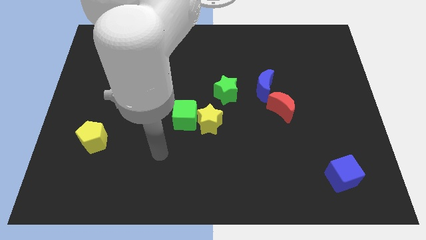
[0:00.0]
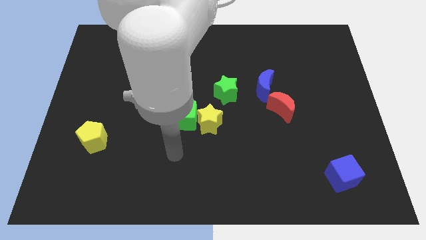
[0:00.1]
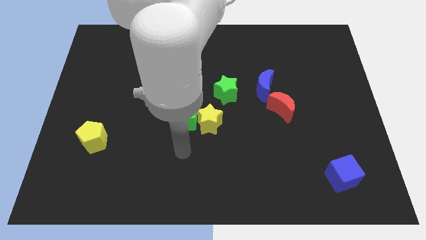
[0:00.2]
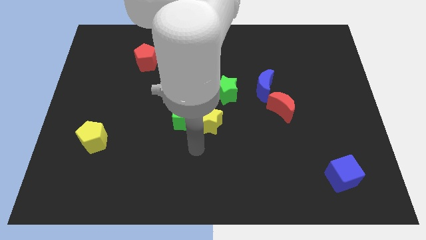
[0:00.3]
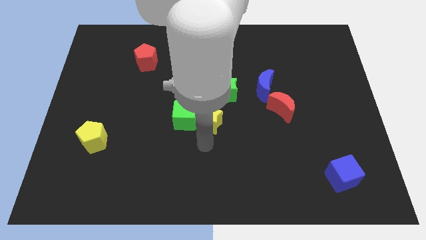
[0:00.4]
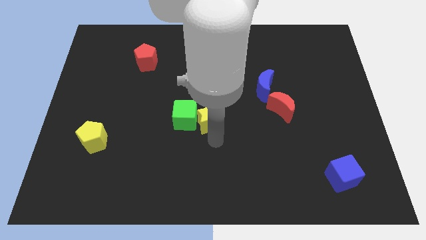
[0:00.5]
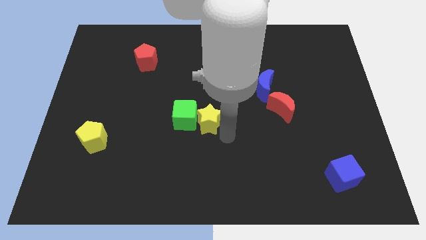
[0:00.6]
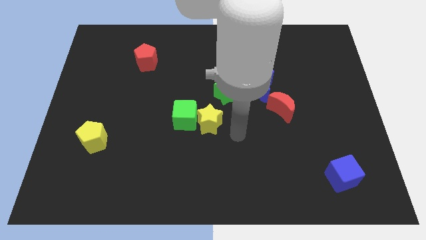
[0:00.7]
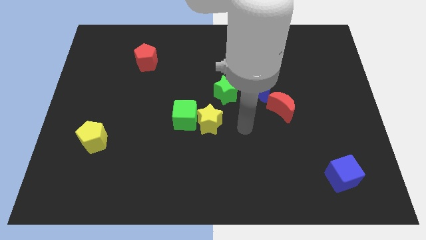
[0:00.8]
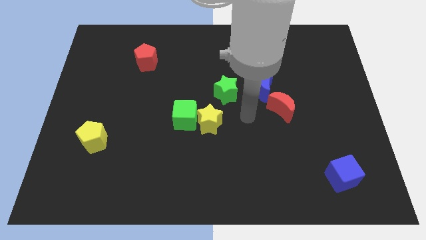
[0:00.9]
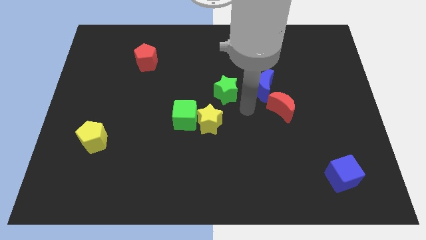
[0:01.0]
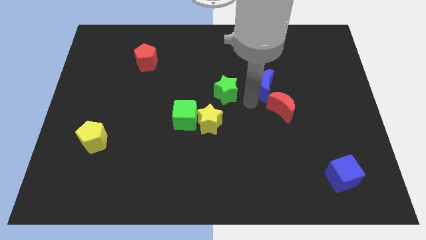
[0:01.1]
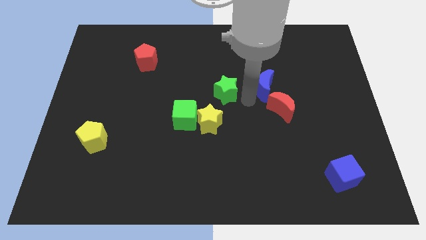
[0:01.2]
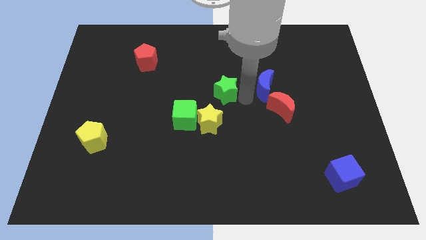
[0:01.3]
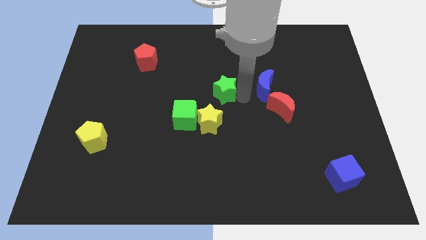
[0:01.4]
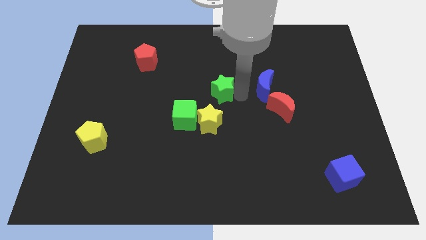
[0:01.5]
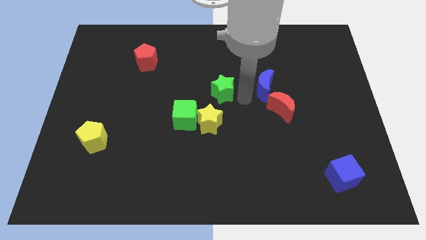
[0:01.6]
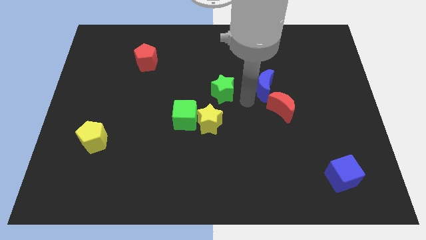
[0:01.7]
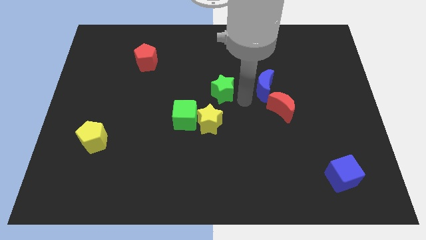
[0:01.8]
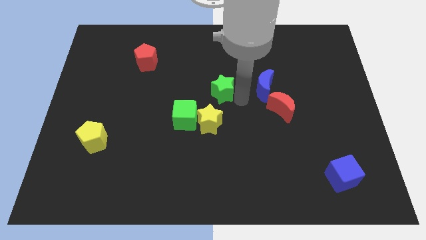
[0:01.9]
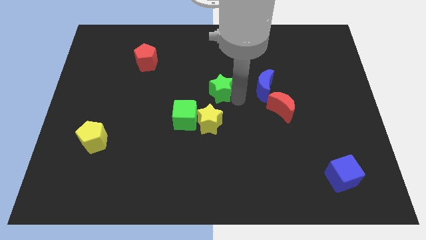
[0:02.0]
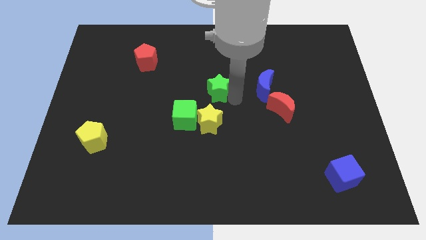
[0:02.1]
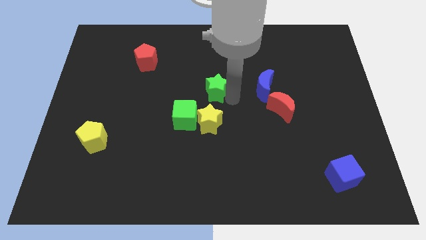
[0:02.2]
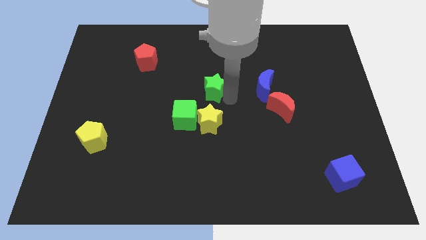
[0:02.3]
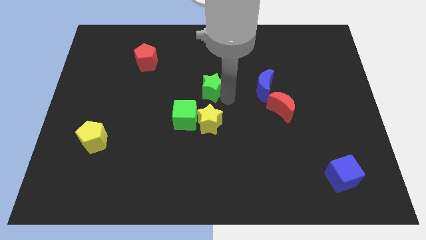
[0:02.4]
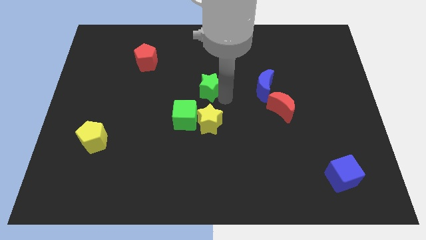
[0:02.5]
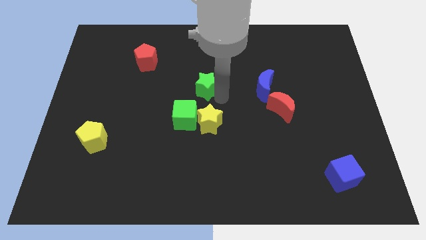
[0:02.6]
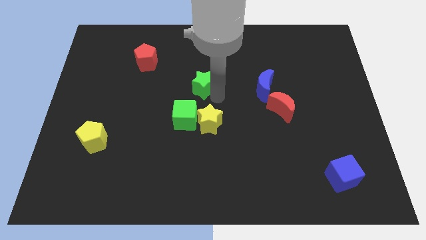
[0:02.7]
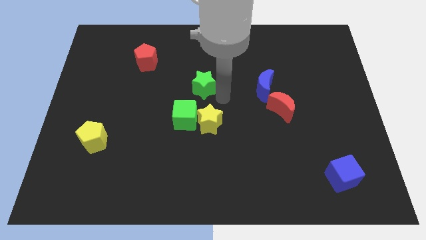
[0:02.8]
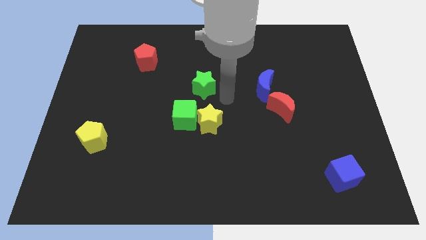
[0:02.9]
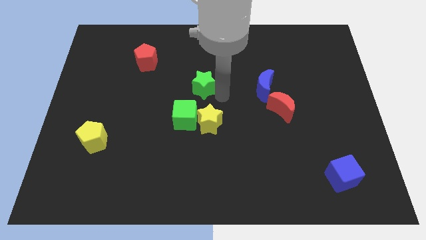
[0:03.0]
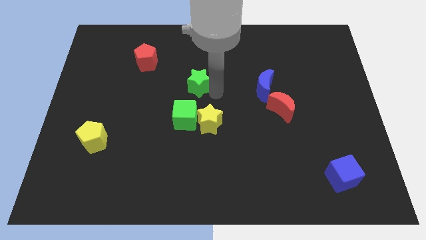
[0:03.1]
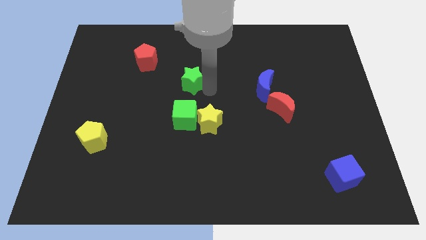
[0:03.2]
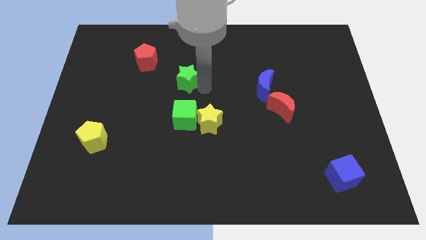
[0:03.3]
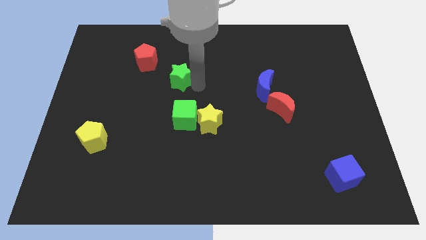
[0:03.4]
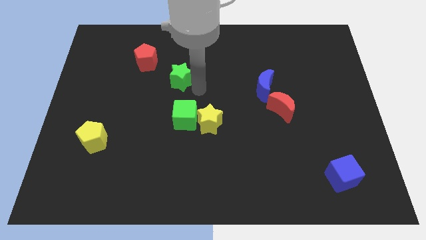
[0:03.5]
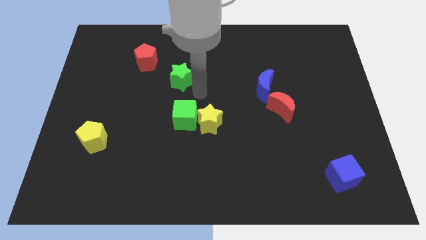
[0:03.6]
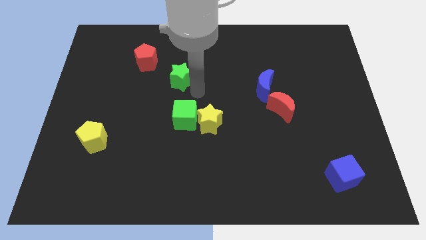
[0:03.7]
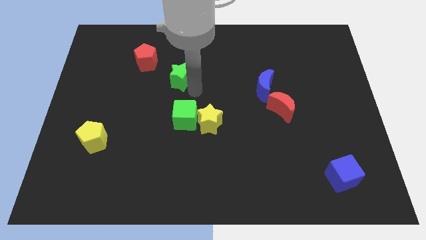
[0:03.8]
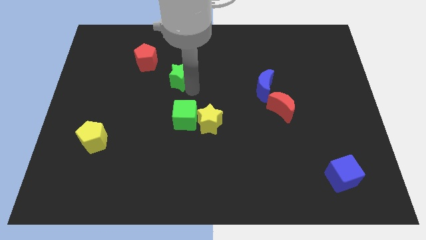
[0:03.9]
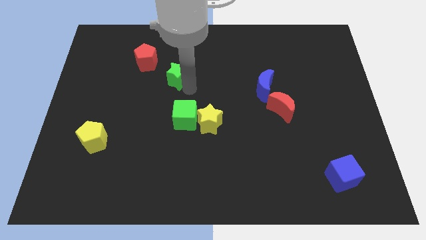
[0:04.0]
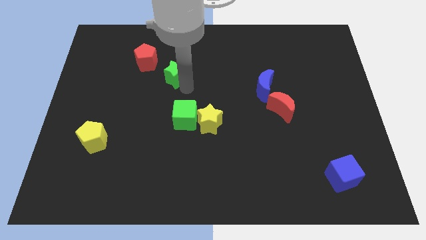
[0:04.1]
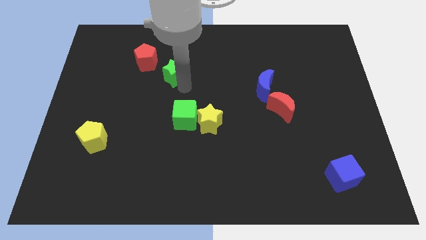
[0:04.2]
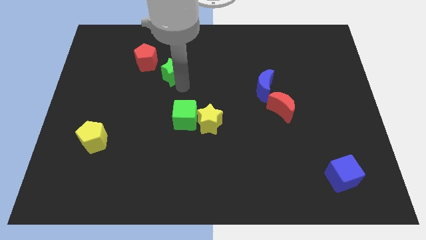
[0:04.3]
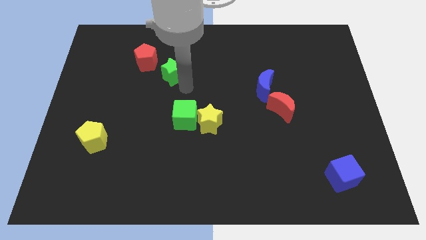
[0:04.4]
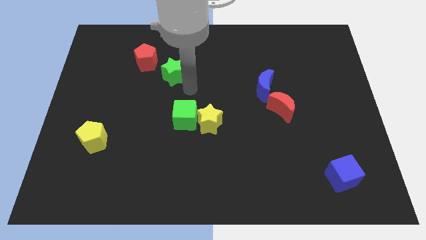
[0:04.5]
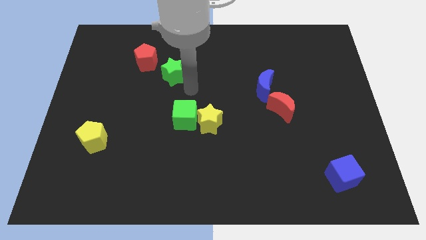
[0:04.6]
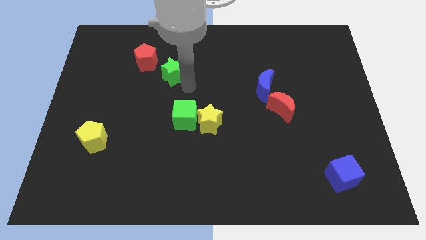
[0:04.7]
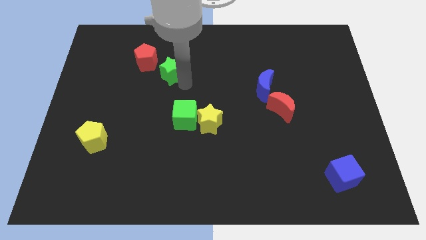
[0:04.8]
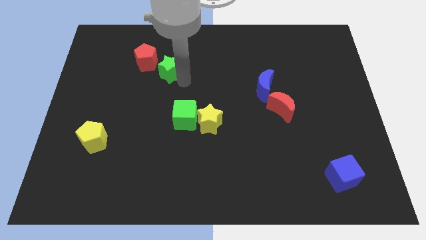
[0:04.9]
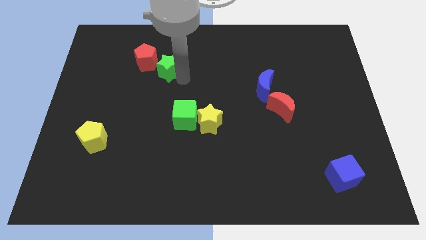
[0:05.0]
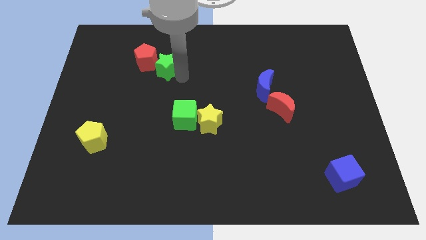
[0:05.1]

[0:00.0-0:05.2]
slide the green star next to the red pentagon

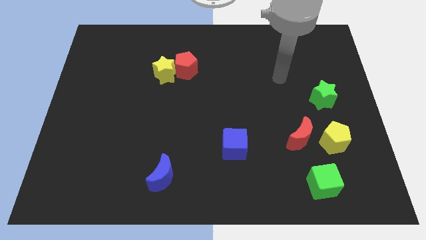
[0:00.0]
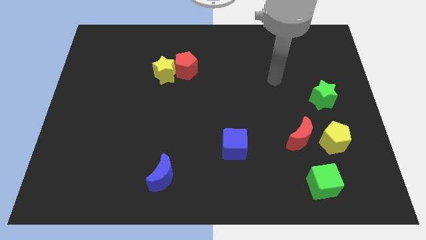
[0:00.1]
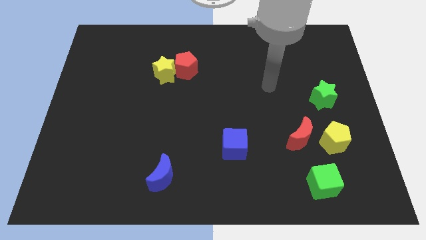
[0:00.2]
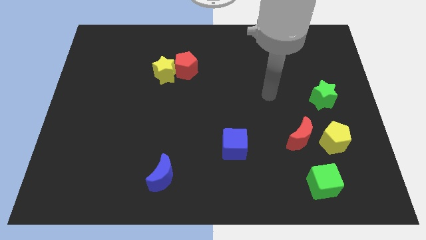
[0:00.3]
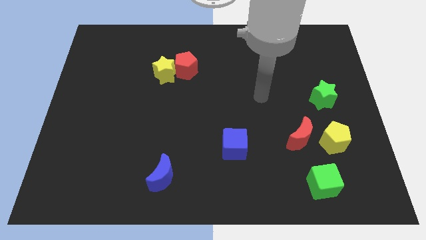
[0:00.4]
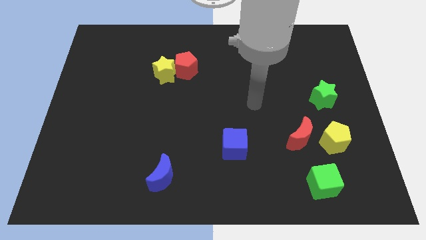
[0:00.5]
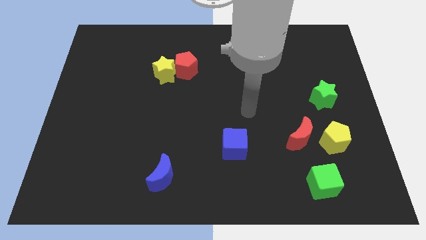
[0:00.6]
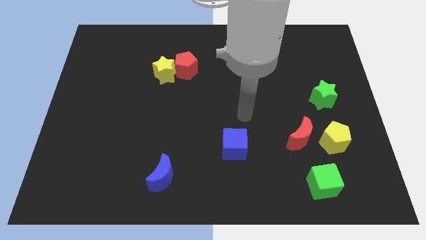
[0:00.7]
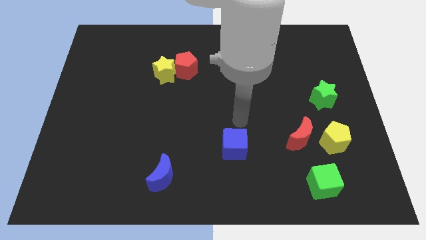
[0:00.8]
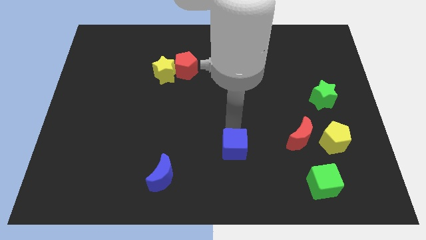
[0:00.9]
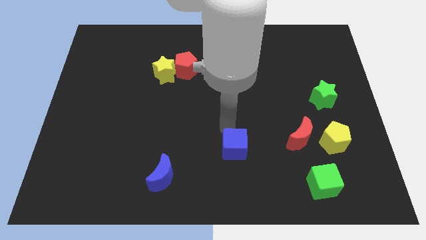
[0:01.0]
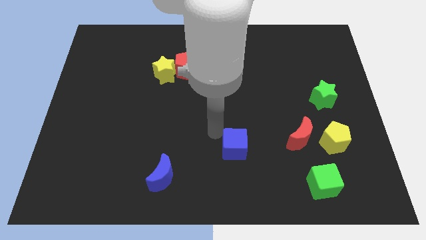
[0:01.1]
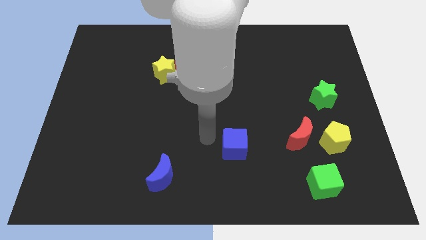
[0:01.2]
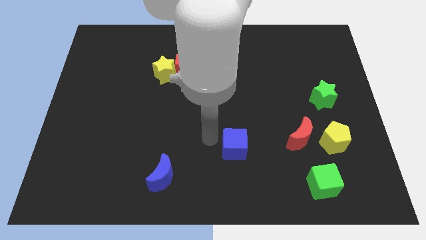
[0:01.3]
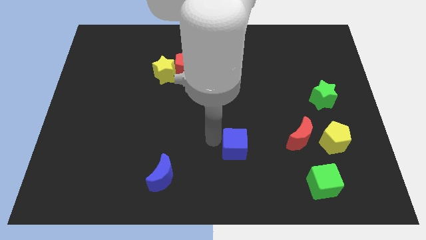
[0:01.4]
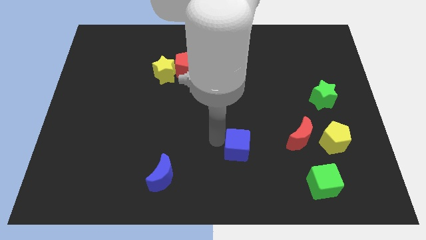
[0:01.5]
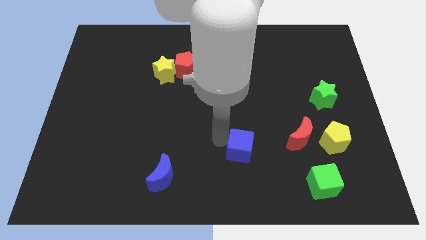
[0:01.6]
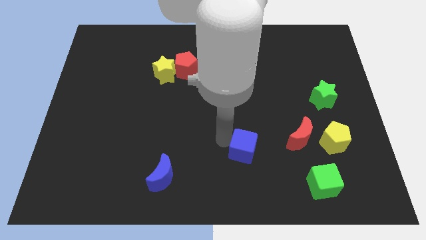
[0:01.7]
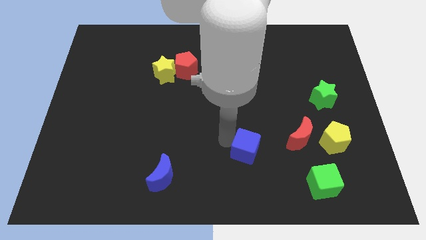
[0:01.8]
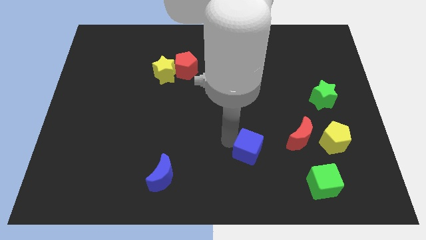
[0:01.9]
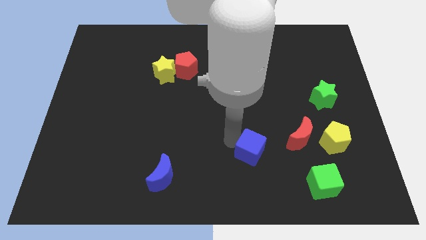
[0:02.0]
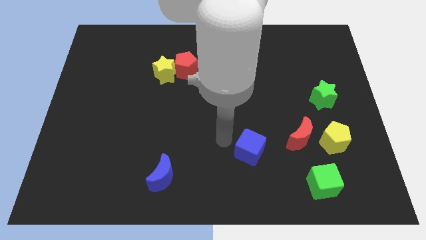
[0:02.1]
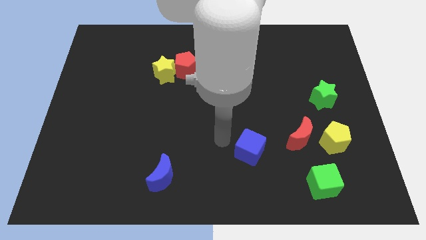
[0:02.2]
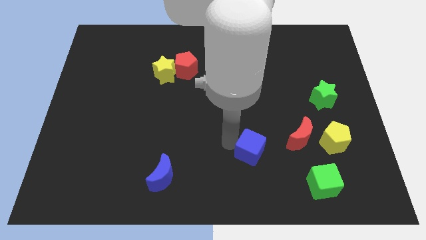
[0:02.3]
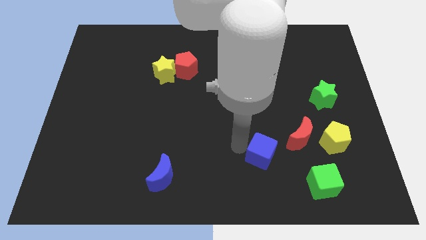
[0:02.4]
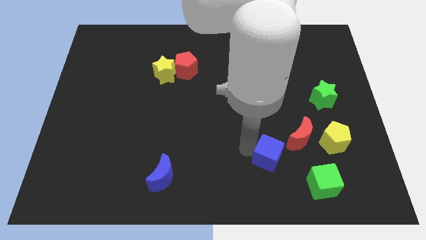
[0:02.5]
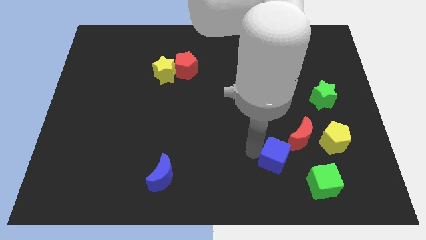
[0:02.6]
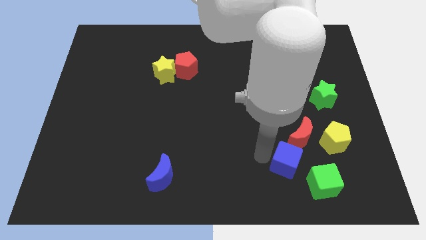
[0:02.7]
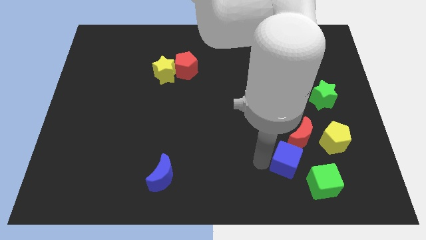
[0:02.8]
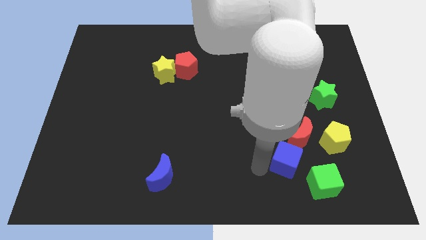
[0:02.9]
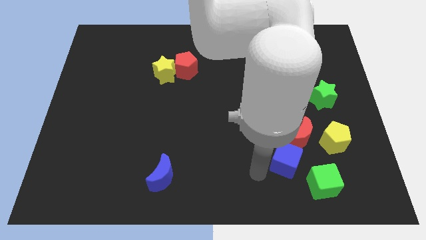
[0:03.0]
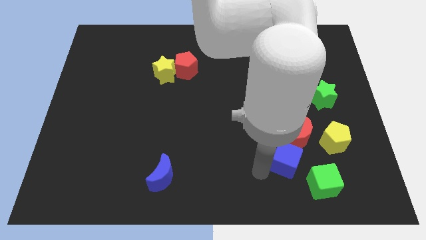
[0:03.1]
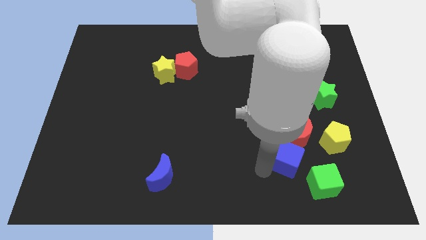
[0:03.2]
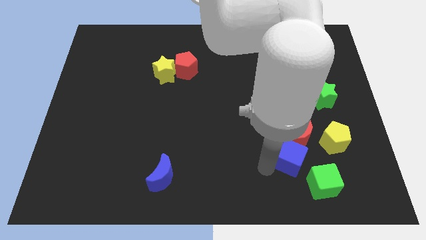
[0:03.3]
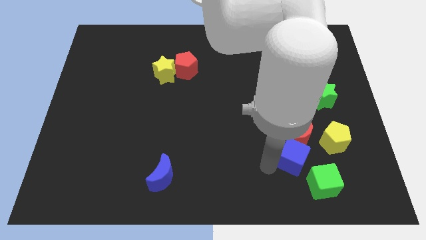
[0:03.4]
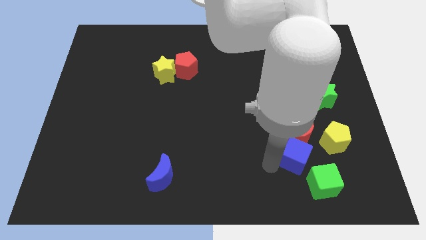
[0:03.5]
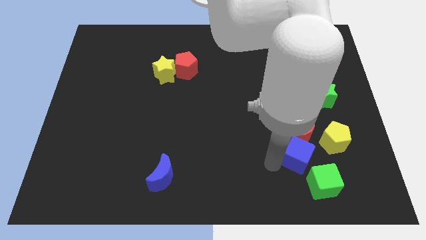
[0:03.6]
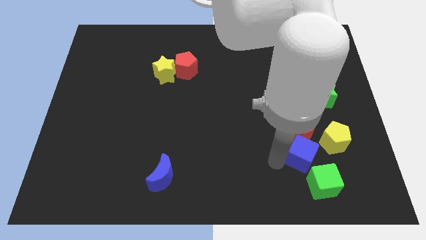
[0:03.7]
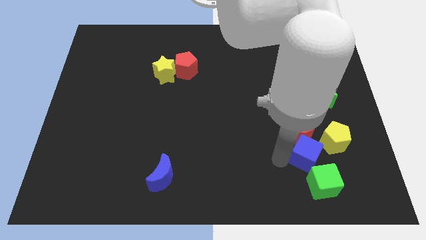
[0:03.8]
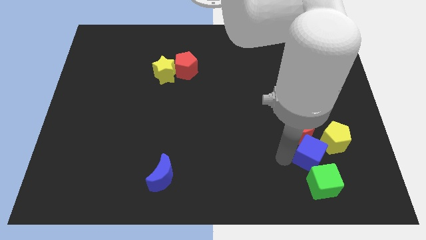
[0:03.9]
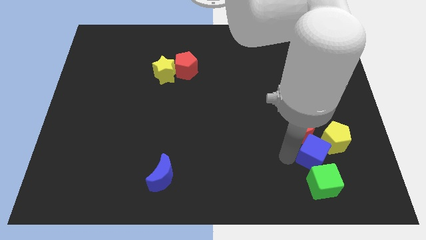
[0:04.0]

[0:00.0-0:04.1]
slide the blue cube close to the yellow pentagon
